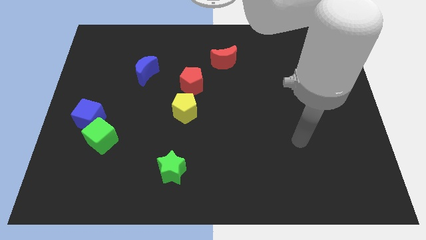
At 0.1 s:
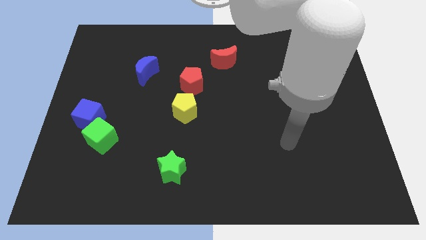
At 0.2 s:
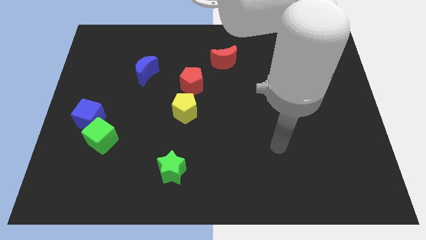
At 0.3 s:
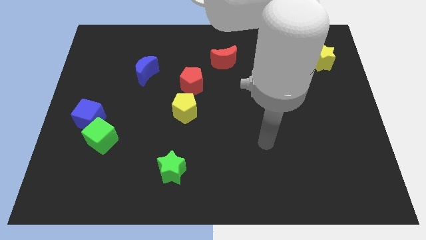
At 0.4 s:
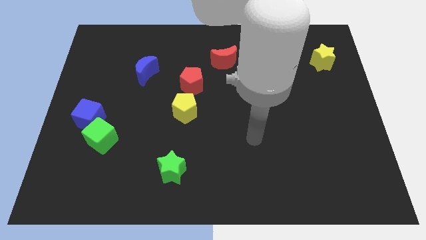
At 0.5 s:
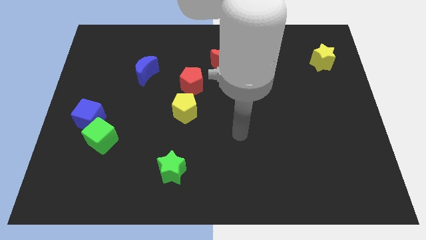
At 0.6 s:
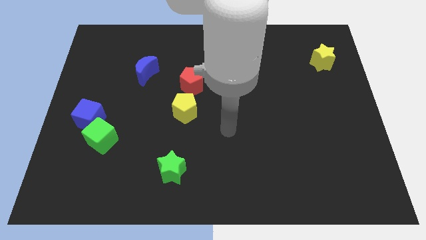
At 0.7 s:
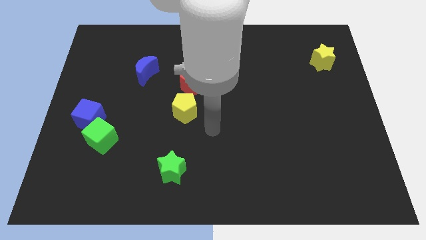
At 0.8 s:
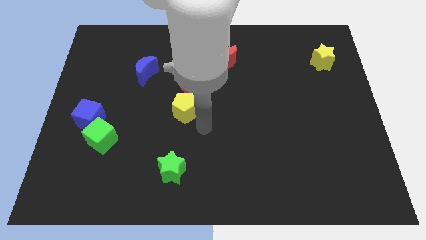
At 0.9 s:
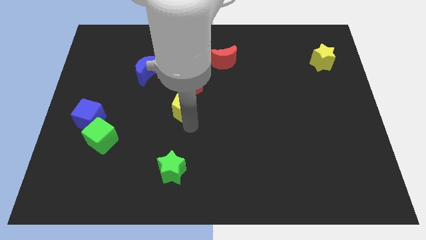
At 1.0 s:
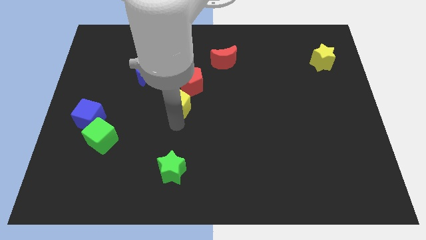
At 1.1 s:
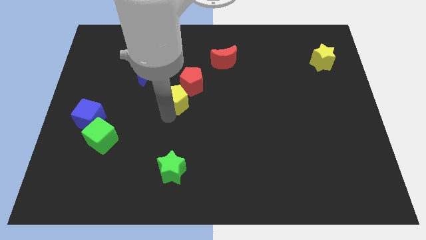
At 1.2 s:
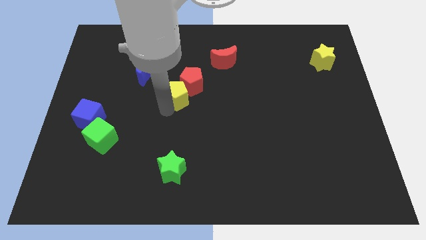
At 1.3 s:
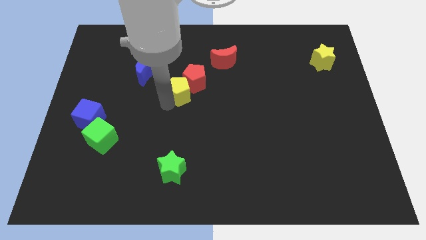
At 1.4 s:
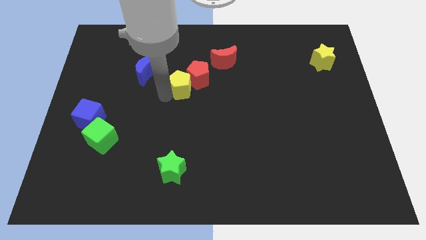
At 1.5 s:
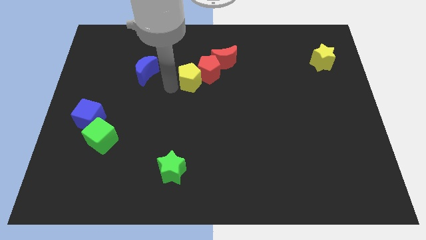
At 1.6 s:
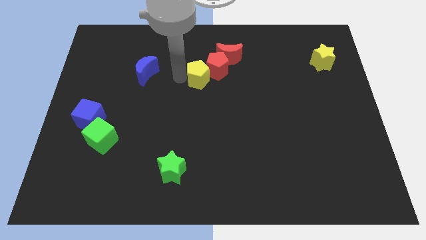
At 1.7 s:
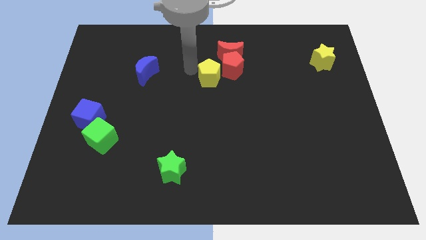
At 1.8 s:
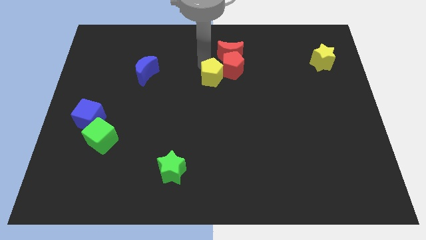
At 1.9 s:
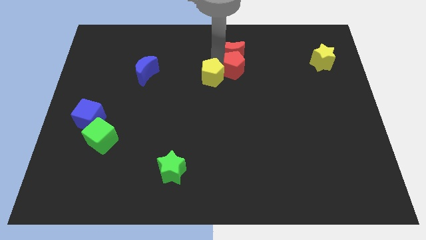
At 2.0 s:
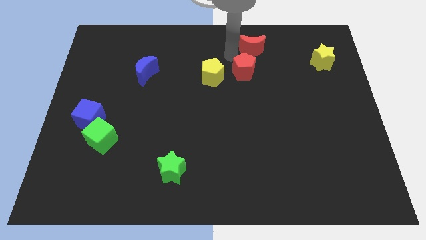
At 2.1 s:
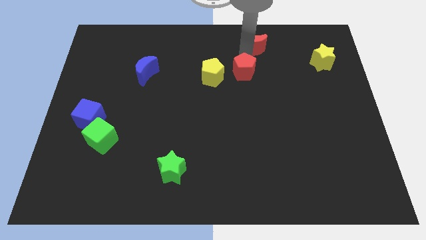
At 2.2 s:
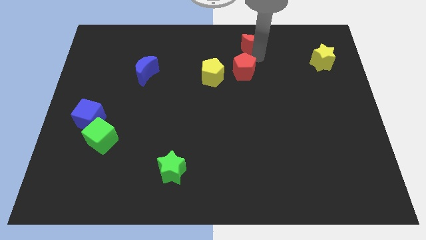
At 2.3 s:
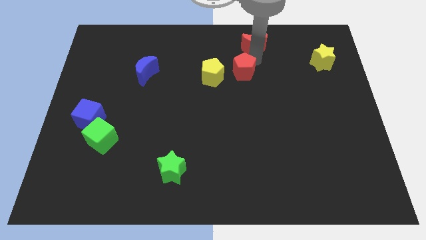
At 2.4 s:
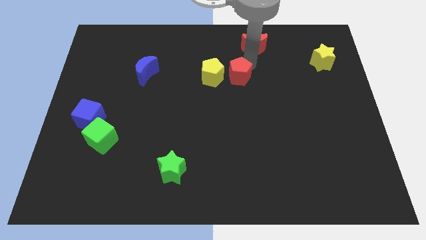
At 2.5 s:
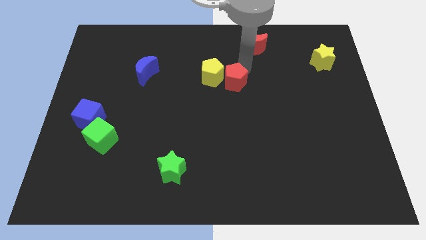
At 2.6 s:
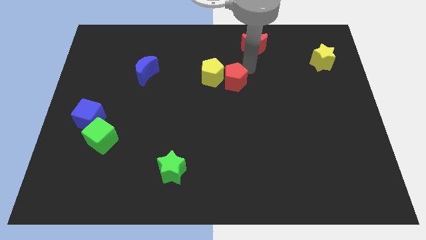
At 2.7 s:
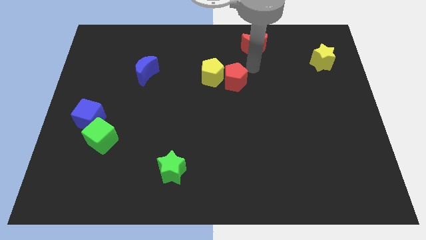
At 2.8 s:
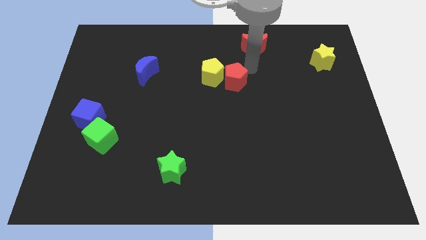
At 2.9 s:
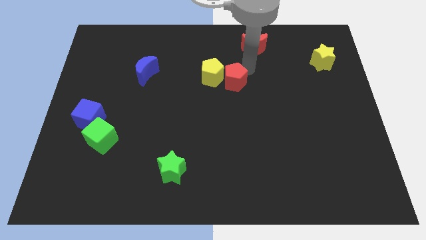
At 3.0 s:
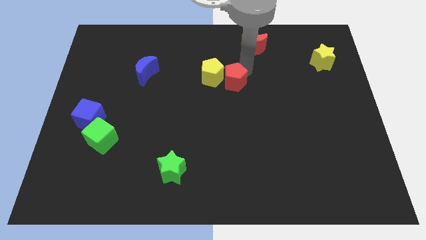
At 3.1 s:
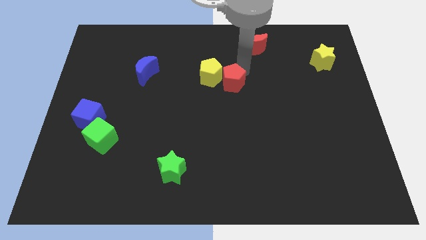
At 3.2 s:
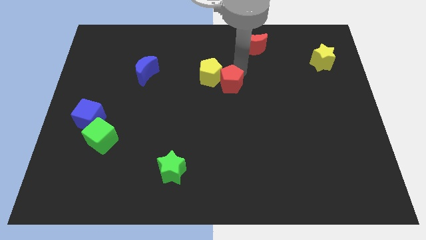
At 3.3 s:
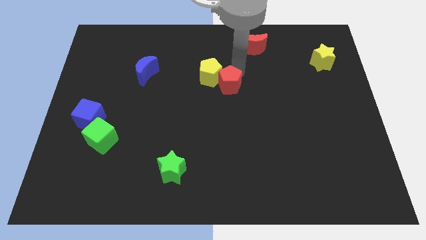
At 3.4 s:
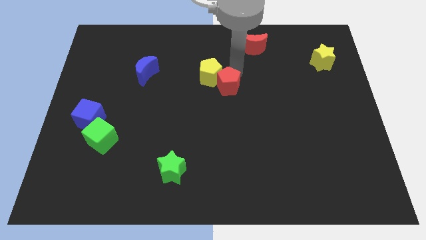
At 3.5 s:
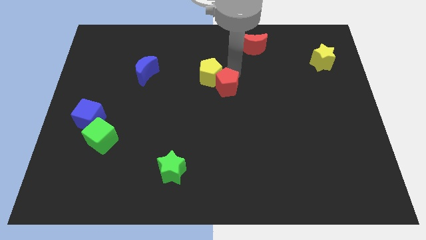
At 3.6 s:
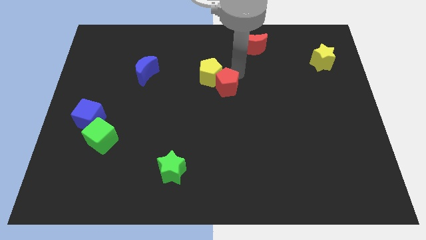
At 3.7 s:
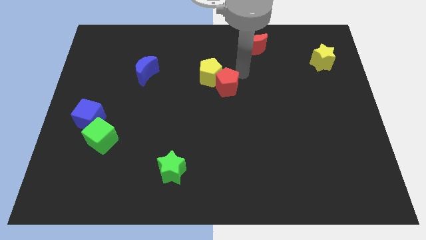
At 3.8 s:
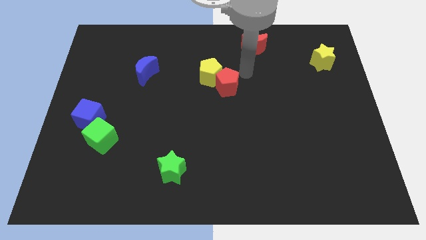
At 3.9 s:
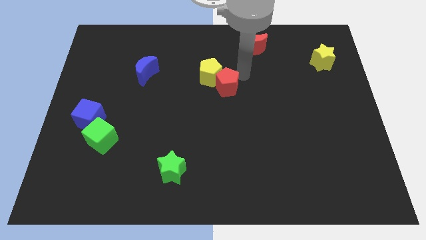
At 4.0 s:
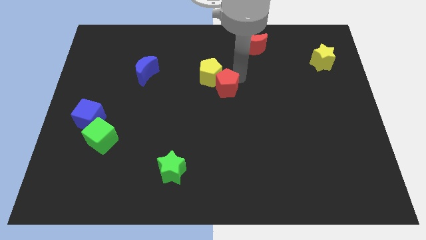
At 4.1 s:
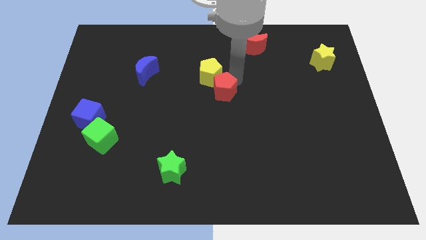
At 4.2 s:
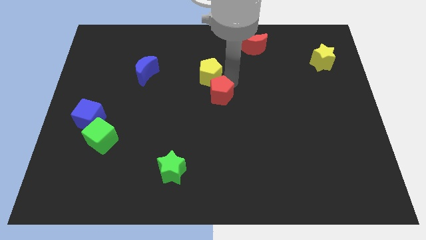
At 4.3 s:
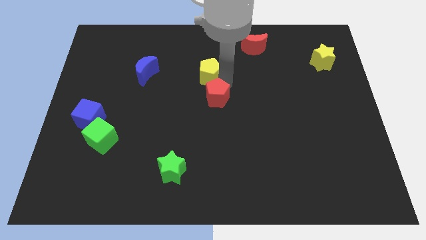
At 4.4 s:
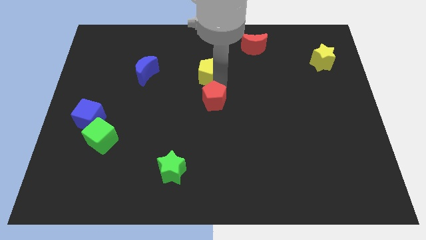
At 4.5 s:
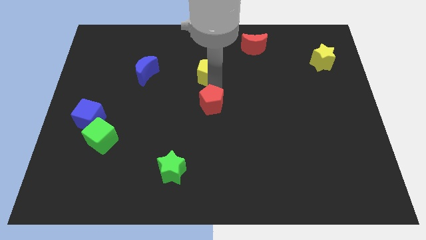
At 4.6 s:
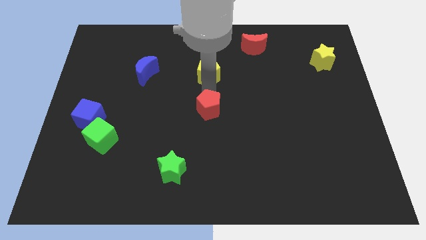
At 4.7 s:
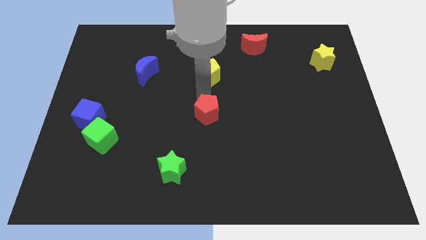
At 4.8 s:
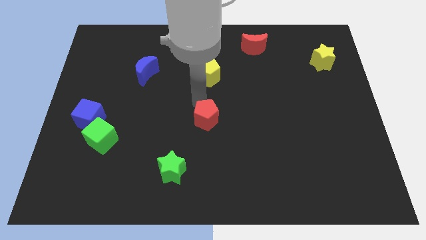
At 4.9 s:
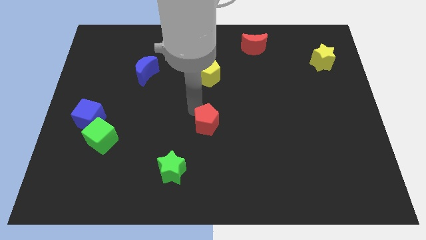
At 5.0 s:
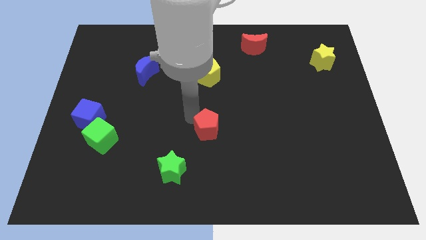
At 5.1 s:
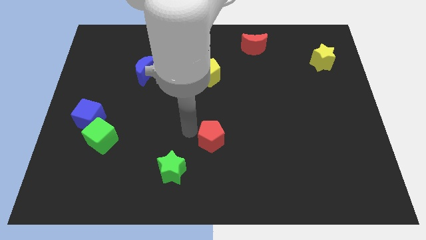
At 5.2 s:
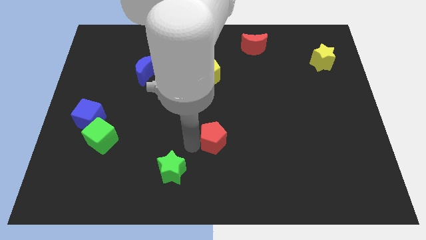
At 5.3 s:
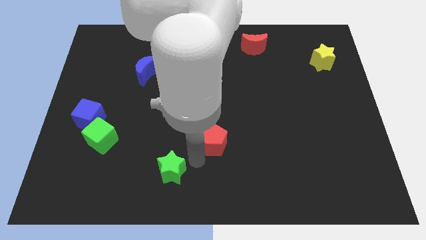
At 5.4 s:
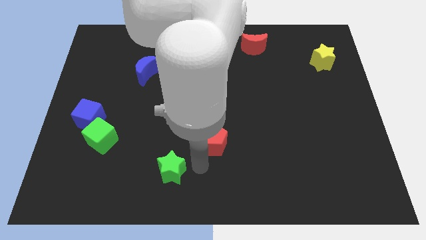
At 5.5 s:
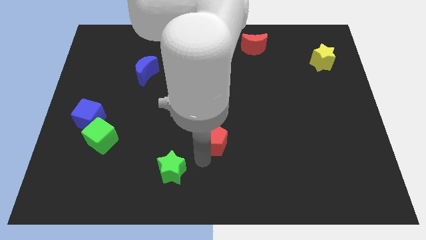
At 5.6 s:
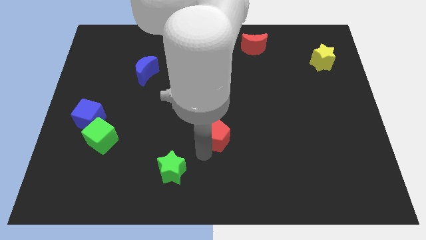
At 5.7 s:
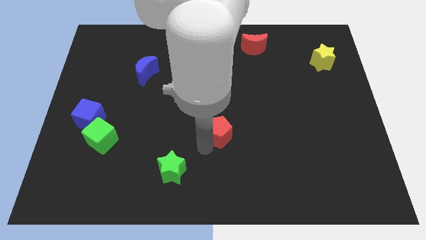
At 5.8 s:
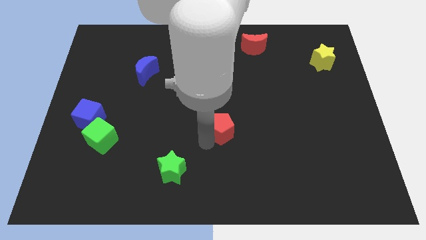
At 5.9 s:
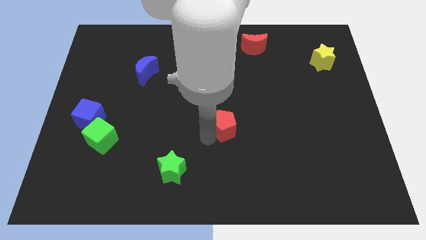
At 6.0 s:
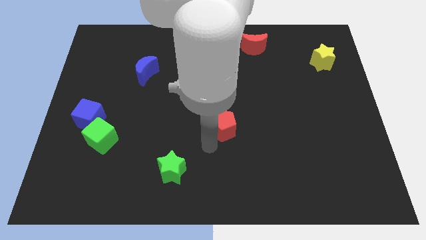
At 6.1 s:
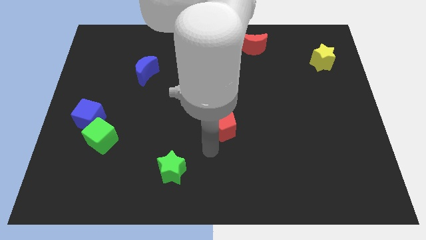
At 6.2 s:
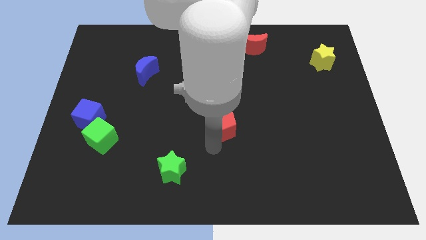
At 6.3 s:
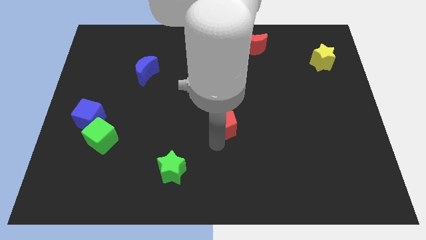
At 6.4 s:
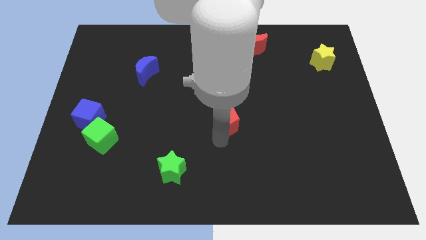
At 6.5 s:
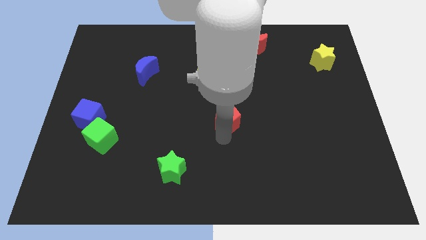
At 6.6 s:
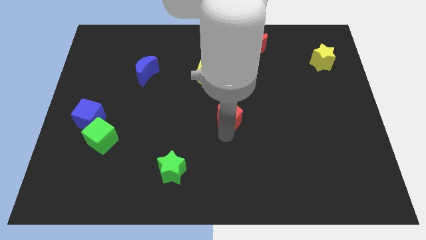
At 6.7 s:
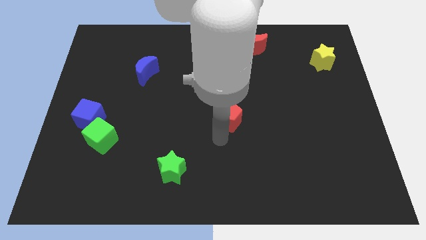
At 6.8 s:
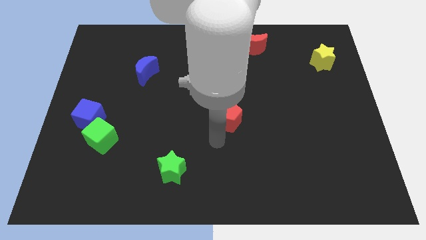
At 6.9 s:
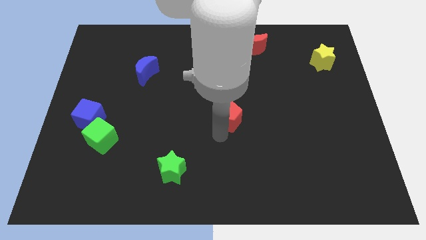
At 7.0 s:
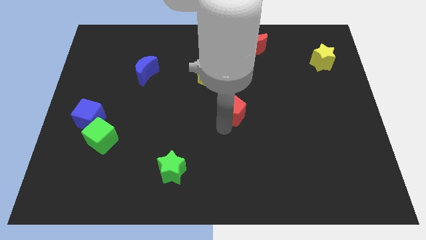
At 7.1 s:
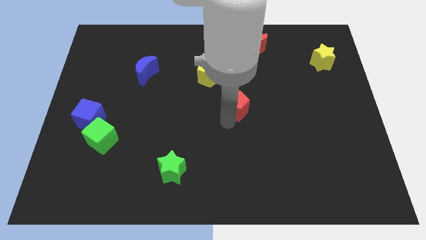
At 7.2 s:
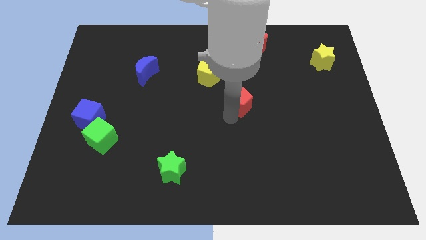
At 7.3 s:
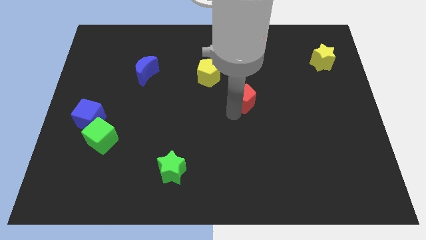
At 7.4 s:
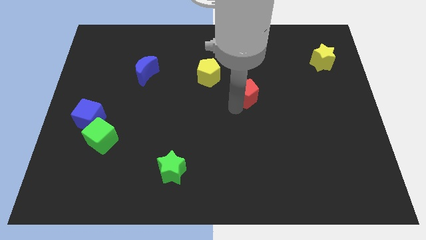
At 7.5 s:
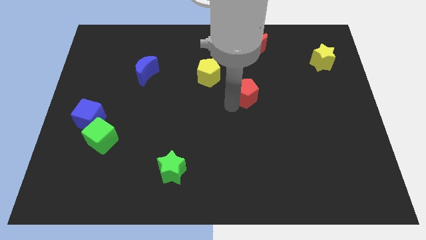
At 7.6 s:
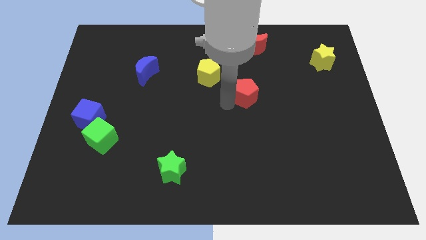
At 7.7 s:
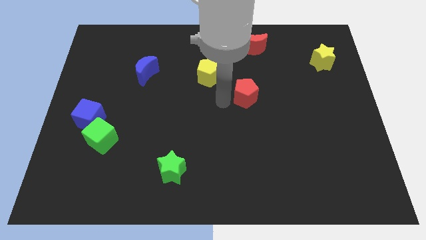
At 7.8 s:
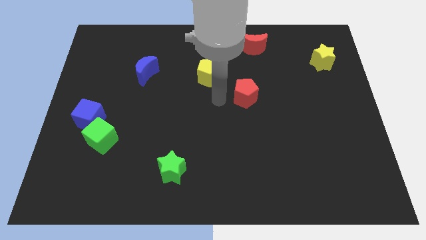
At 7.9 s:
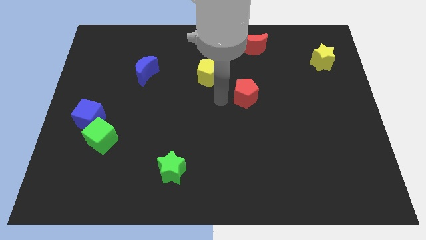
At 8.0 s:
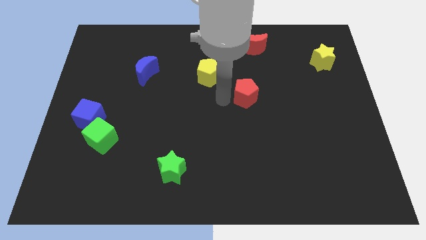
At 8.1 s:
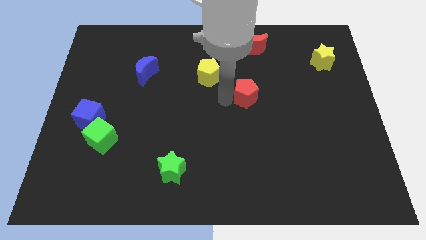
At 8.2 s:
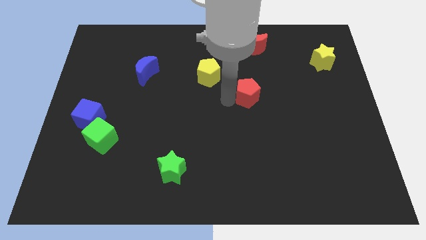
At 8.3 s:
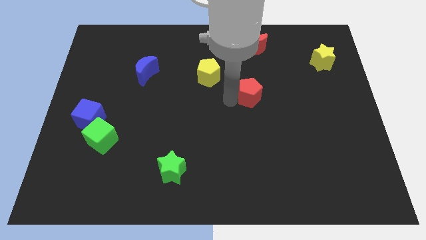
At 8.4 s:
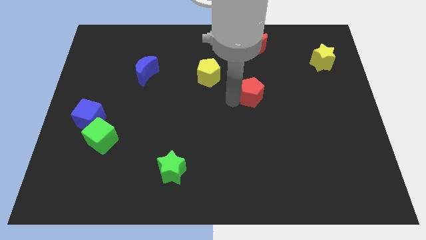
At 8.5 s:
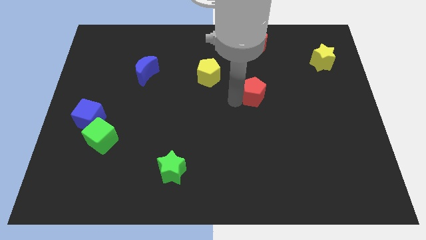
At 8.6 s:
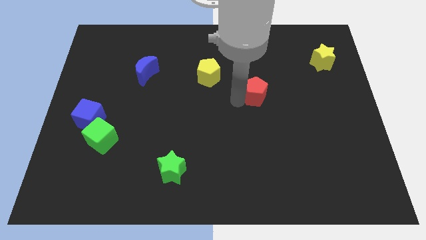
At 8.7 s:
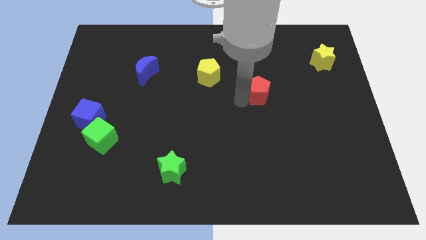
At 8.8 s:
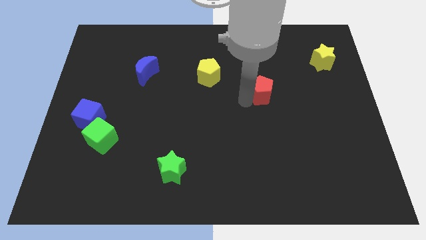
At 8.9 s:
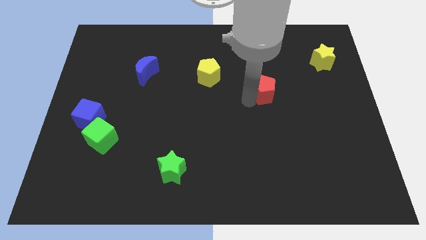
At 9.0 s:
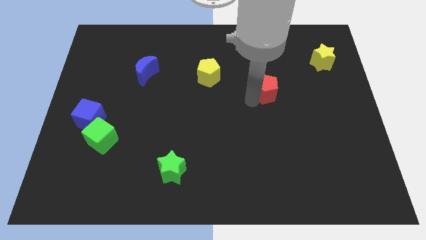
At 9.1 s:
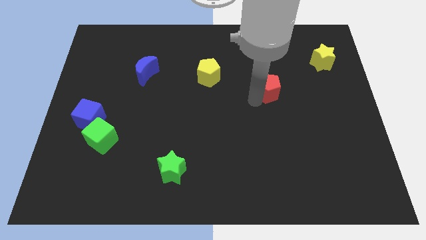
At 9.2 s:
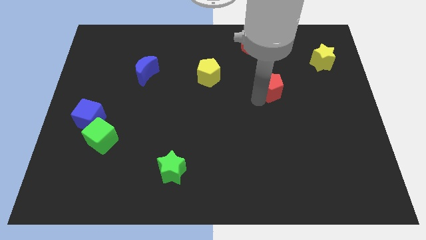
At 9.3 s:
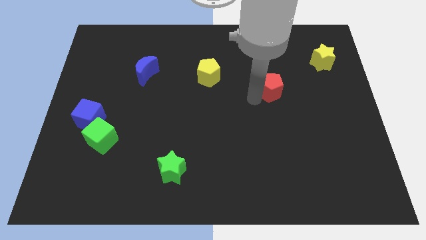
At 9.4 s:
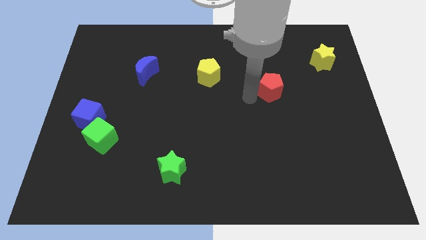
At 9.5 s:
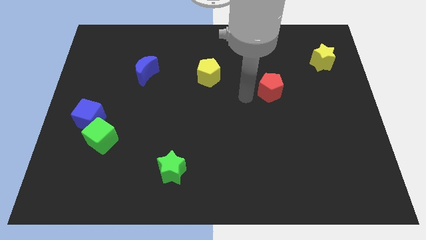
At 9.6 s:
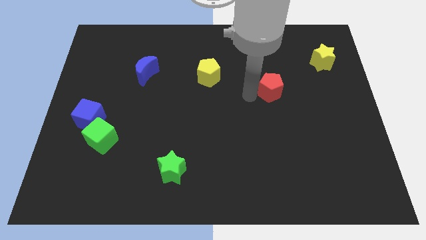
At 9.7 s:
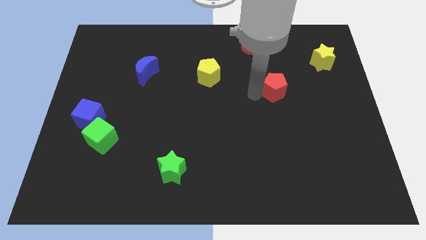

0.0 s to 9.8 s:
slide the red pentagon right
